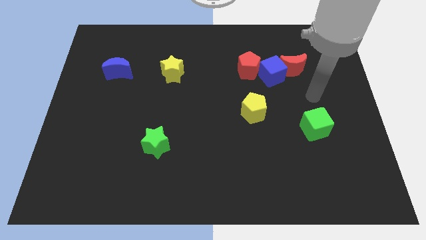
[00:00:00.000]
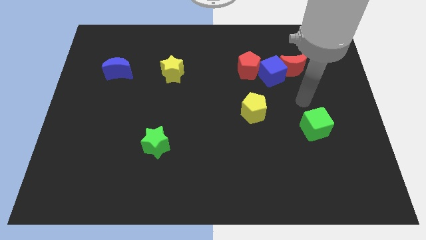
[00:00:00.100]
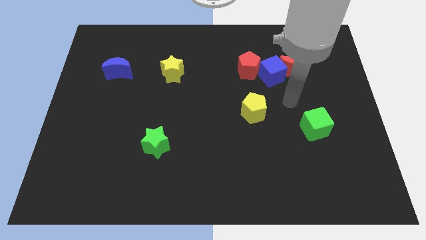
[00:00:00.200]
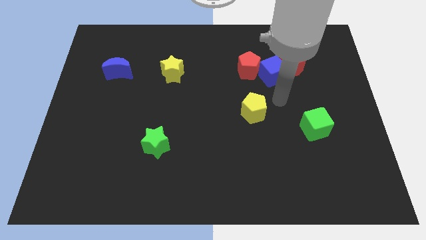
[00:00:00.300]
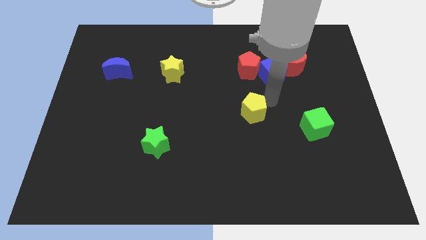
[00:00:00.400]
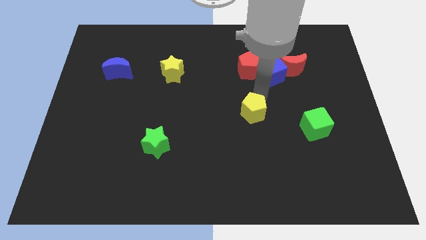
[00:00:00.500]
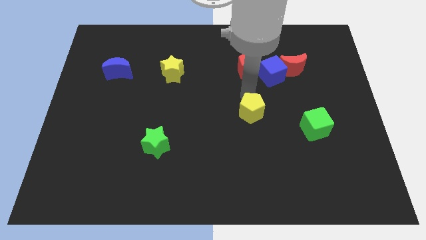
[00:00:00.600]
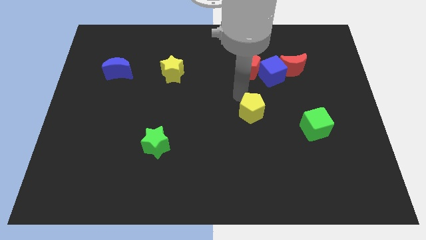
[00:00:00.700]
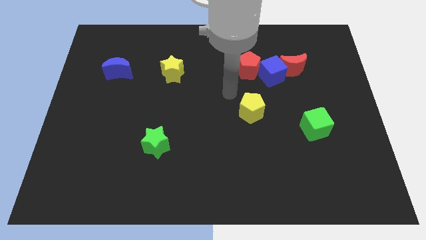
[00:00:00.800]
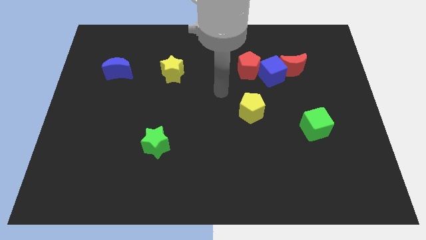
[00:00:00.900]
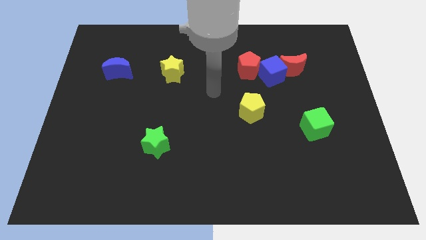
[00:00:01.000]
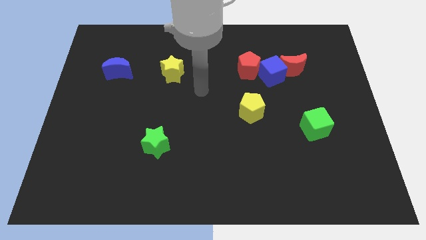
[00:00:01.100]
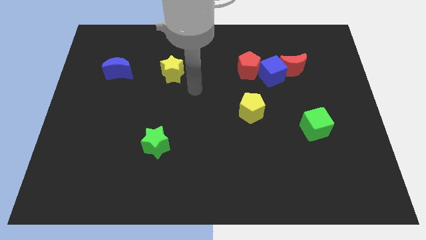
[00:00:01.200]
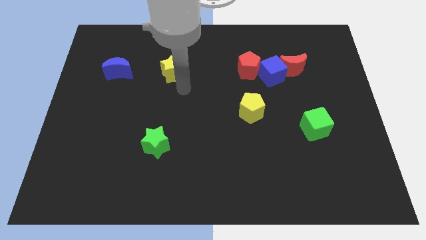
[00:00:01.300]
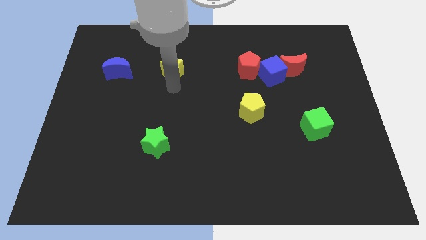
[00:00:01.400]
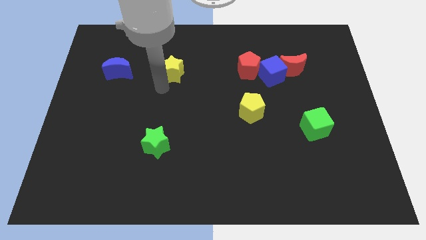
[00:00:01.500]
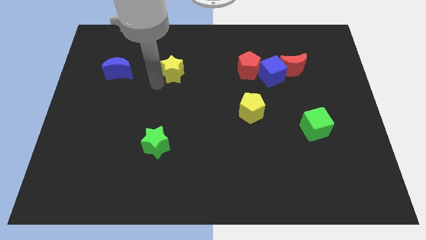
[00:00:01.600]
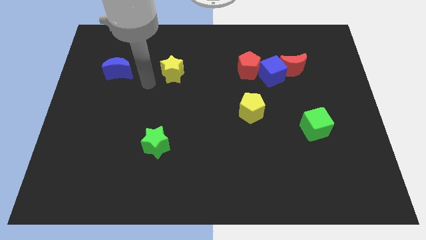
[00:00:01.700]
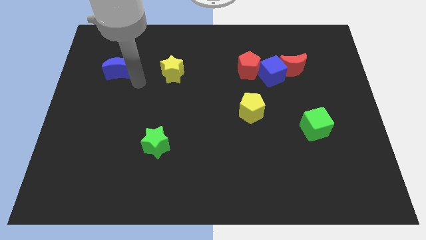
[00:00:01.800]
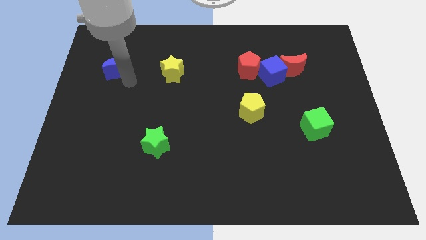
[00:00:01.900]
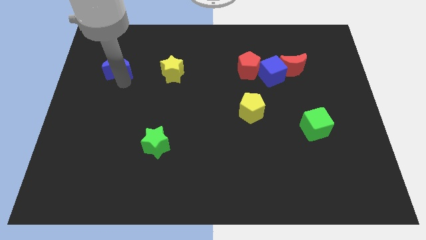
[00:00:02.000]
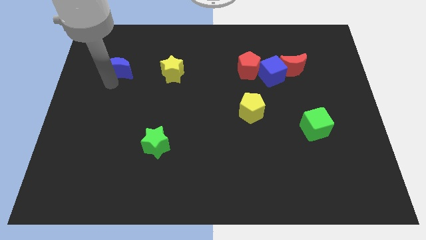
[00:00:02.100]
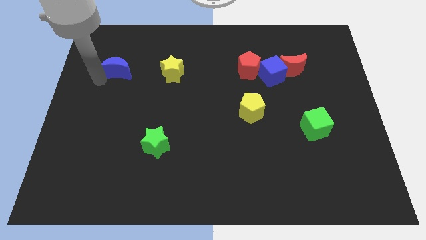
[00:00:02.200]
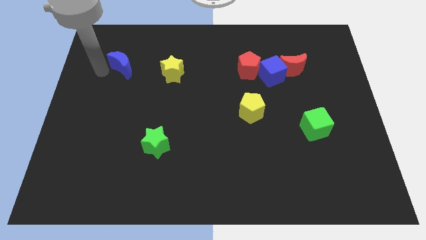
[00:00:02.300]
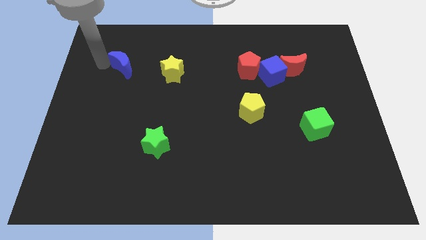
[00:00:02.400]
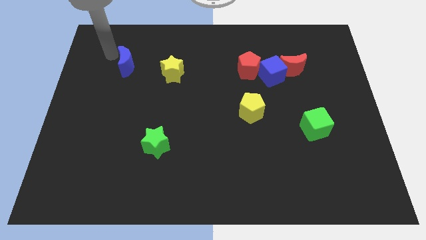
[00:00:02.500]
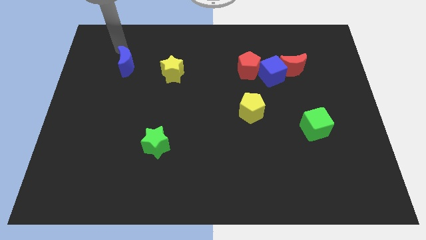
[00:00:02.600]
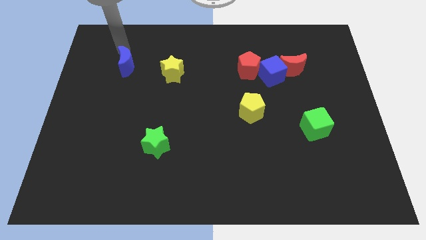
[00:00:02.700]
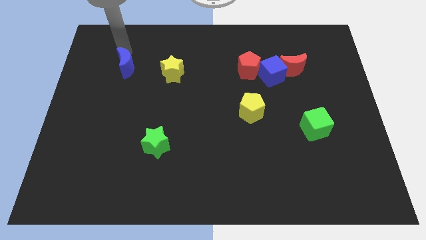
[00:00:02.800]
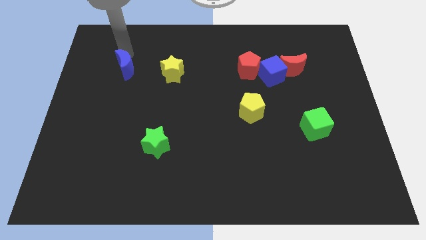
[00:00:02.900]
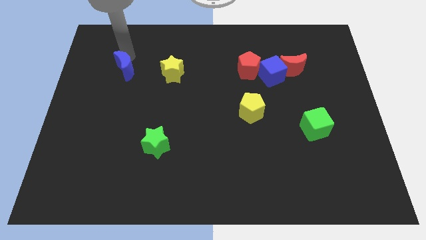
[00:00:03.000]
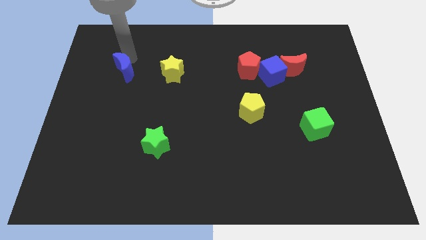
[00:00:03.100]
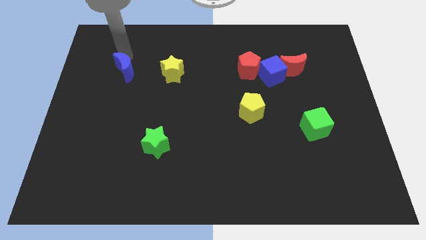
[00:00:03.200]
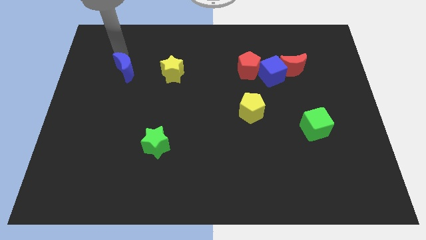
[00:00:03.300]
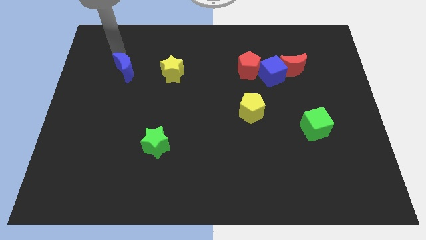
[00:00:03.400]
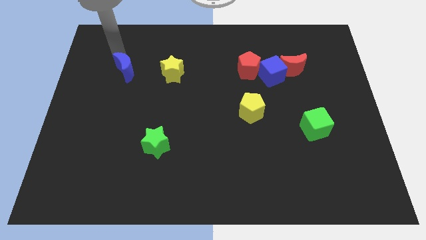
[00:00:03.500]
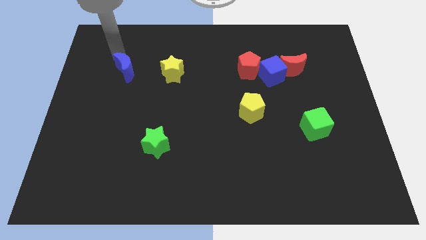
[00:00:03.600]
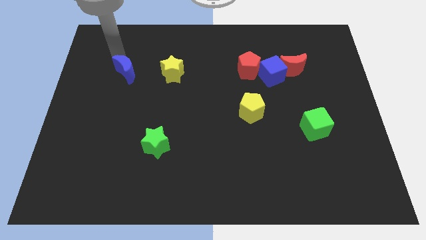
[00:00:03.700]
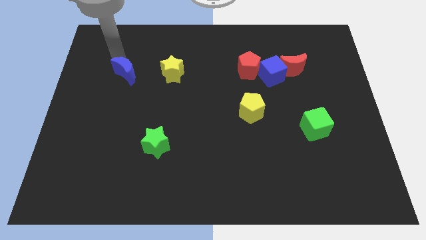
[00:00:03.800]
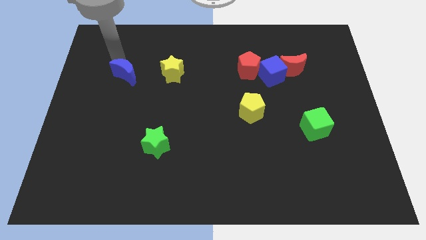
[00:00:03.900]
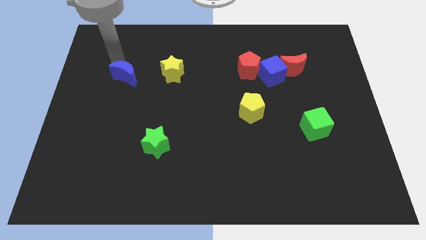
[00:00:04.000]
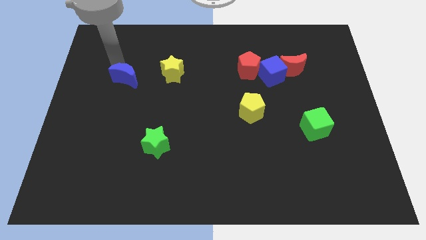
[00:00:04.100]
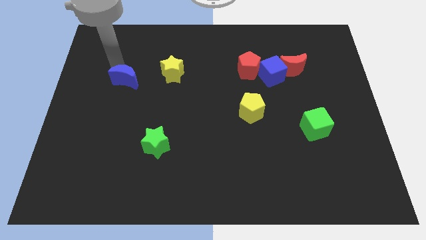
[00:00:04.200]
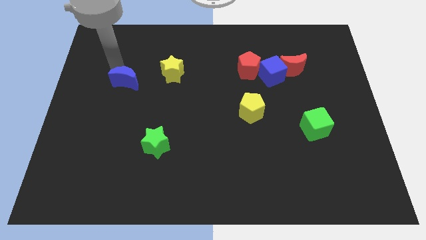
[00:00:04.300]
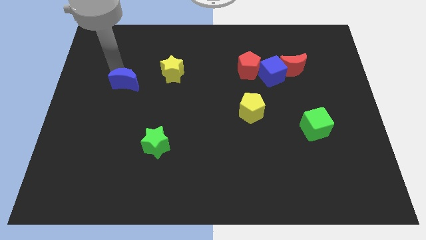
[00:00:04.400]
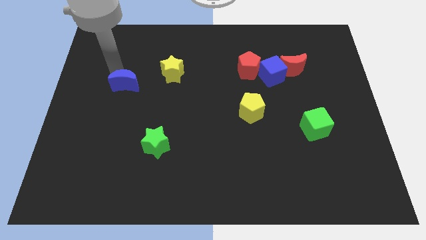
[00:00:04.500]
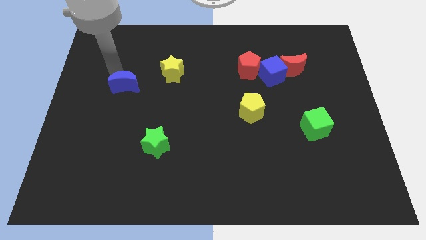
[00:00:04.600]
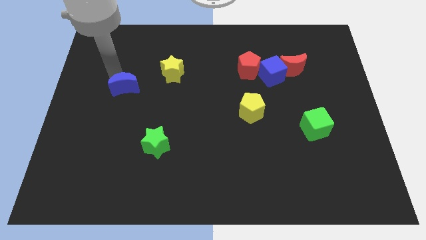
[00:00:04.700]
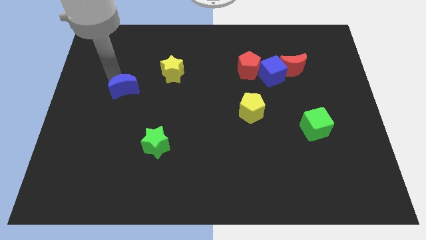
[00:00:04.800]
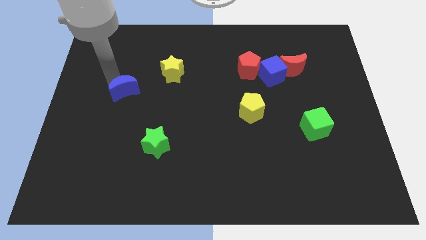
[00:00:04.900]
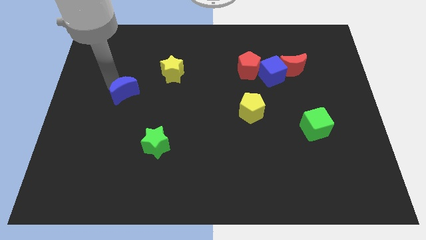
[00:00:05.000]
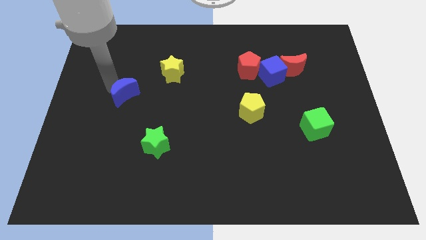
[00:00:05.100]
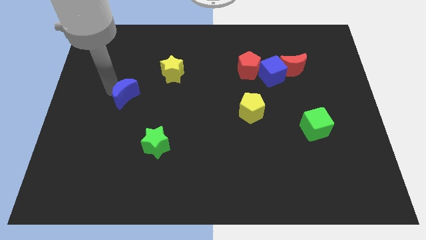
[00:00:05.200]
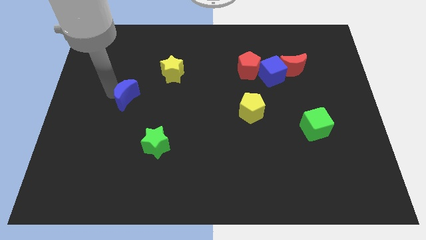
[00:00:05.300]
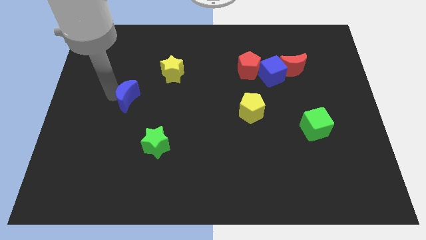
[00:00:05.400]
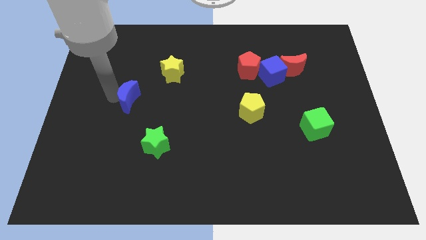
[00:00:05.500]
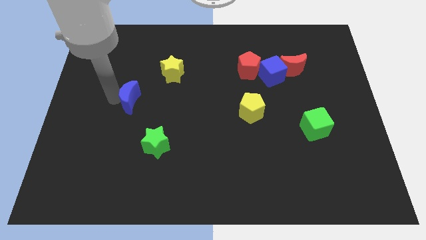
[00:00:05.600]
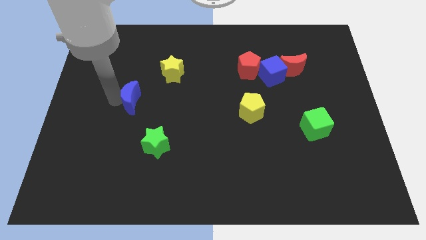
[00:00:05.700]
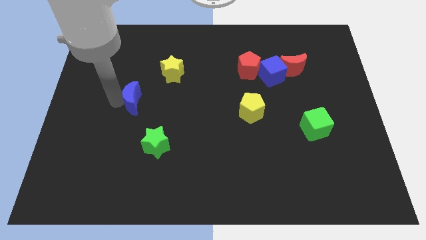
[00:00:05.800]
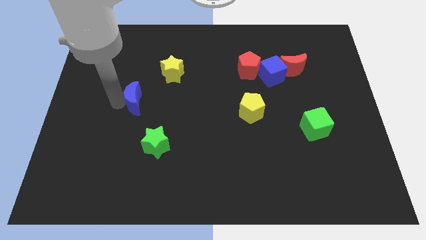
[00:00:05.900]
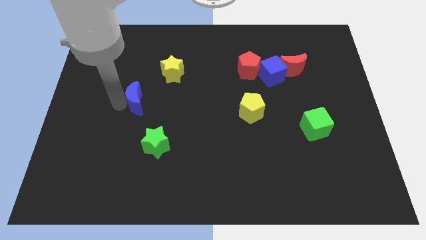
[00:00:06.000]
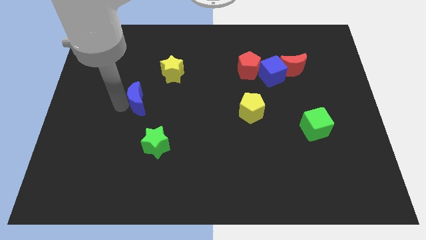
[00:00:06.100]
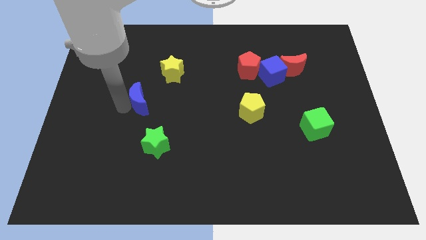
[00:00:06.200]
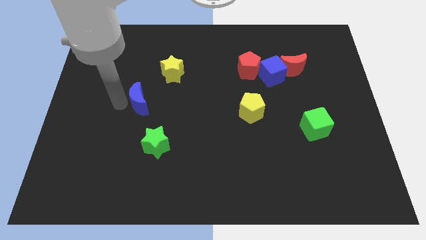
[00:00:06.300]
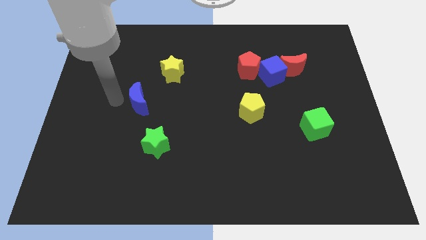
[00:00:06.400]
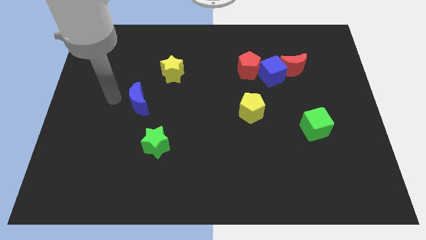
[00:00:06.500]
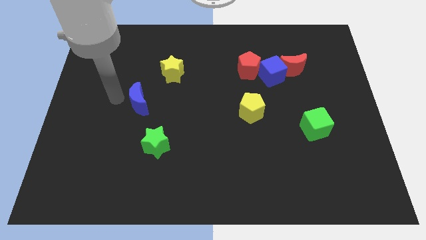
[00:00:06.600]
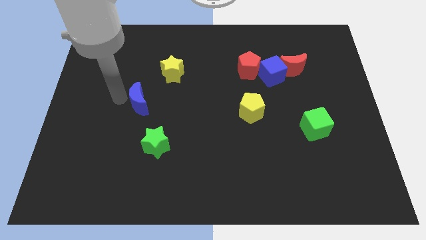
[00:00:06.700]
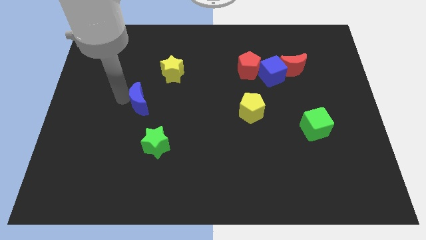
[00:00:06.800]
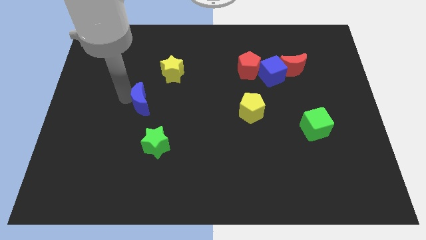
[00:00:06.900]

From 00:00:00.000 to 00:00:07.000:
slide the blue moon to the top side of the green star

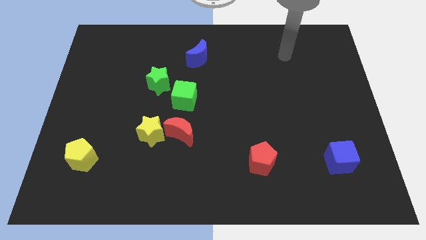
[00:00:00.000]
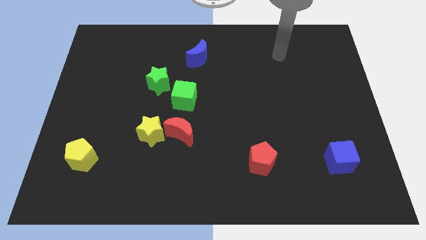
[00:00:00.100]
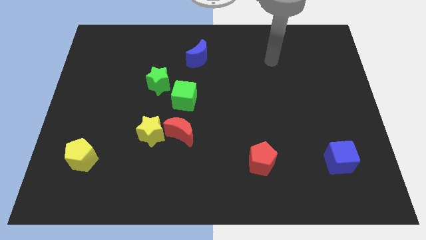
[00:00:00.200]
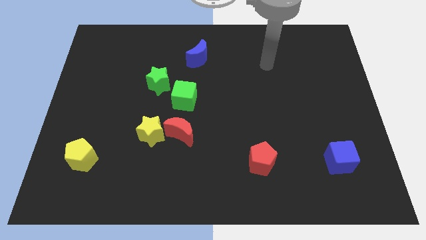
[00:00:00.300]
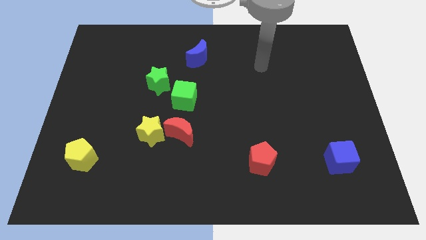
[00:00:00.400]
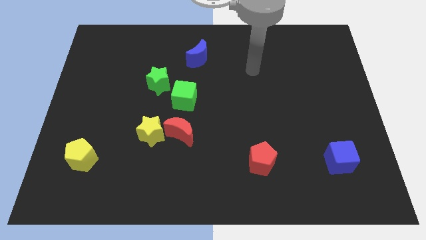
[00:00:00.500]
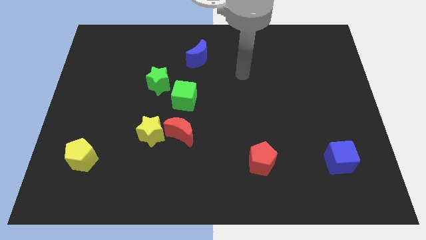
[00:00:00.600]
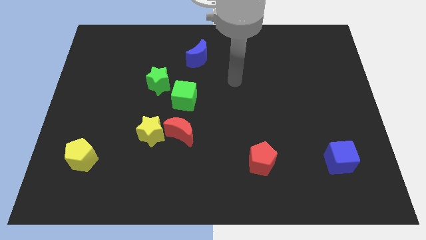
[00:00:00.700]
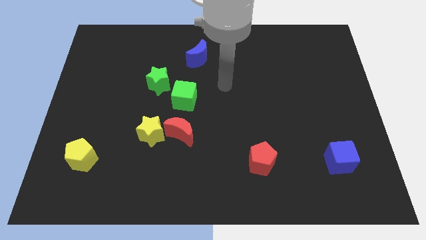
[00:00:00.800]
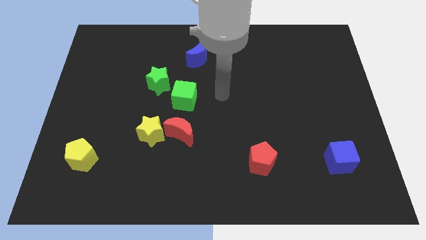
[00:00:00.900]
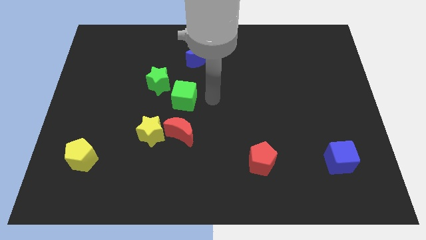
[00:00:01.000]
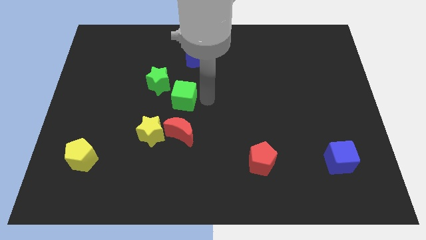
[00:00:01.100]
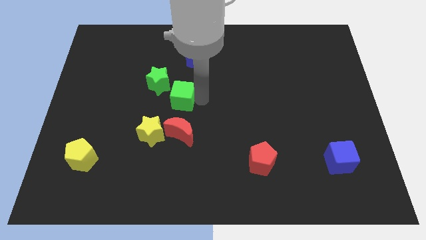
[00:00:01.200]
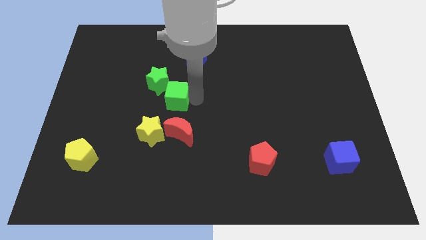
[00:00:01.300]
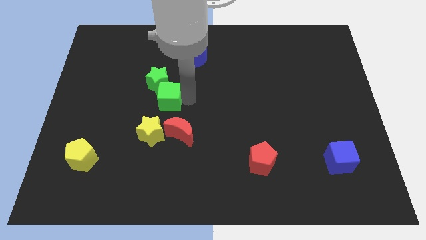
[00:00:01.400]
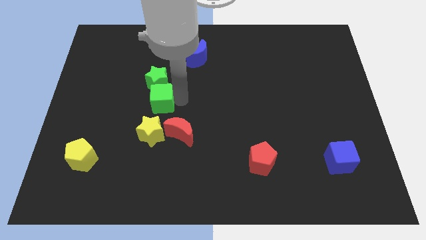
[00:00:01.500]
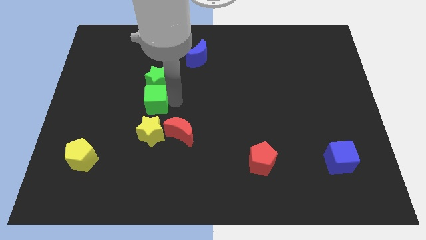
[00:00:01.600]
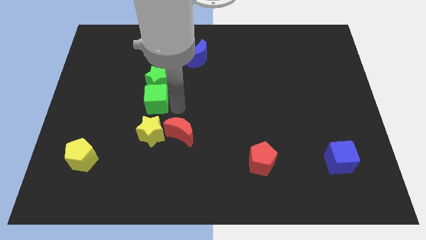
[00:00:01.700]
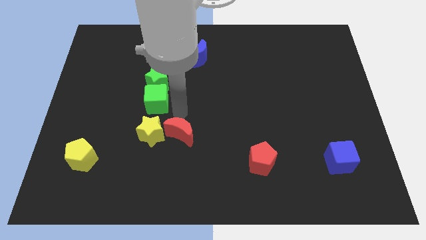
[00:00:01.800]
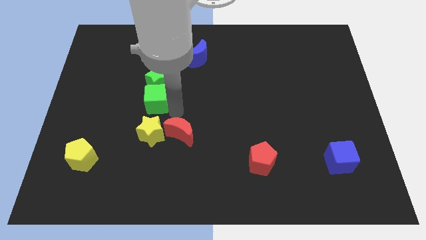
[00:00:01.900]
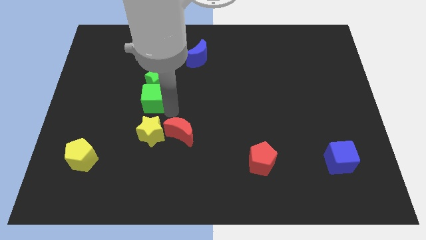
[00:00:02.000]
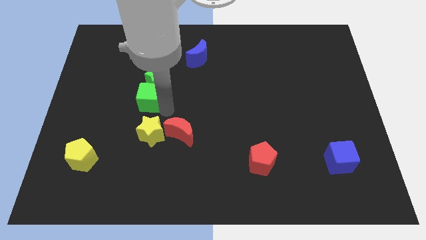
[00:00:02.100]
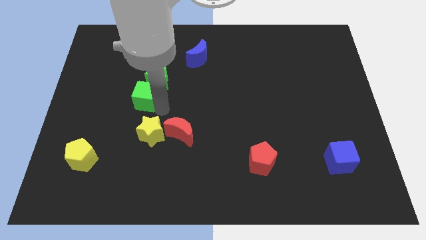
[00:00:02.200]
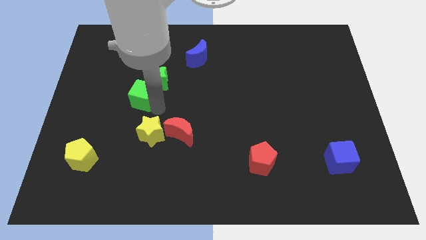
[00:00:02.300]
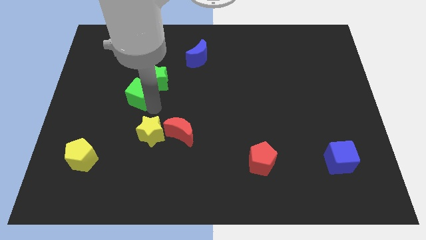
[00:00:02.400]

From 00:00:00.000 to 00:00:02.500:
slide the green cube just left of the green star
